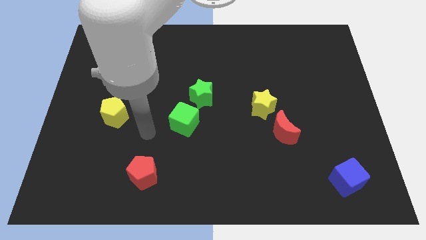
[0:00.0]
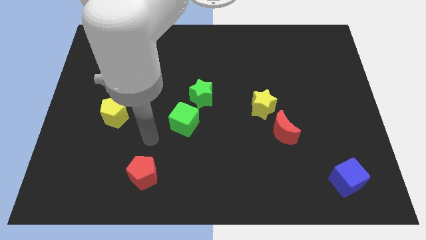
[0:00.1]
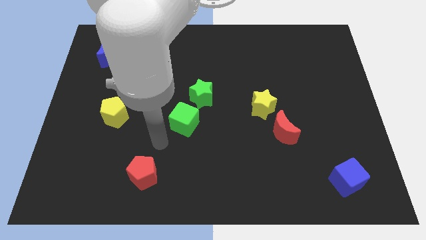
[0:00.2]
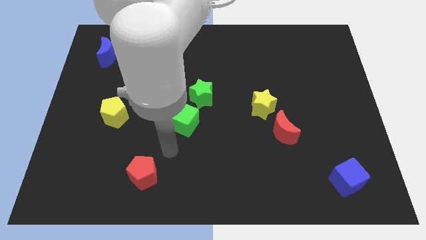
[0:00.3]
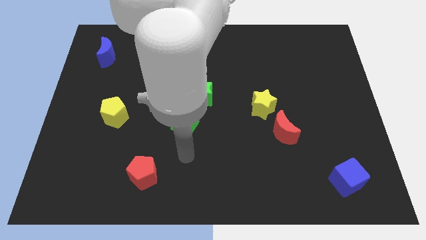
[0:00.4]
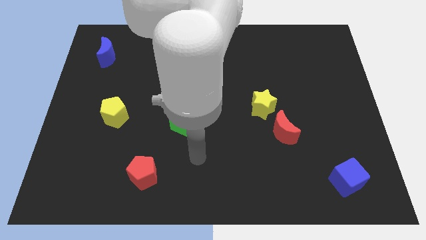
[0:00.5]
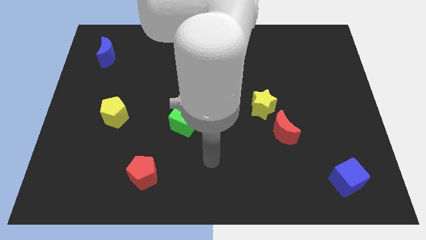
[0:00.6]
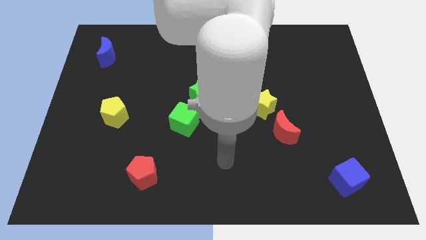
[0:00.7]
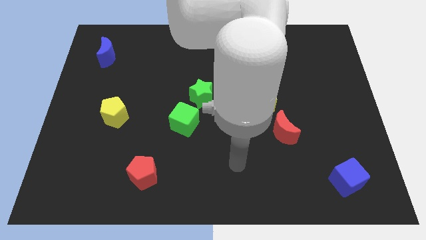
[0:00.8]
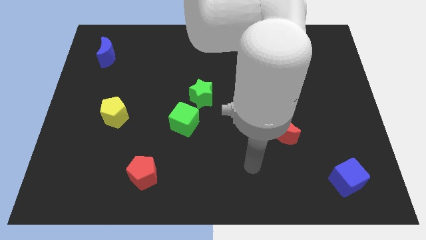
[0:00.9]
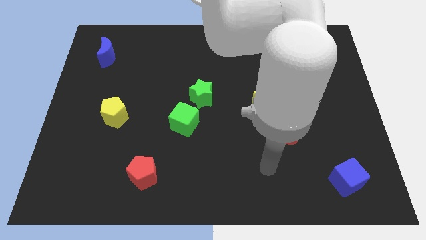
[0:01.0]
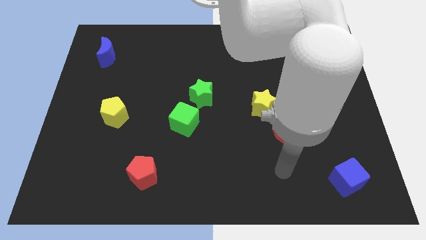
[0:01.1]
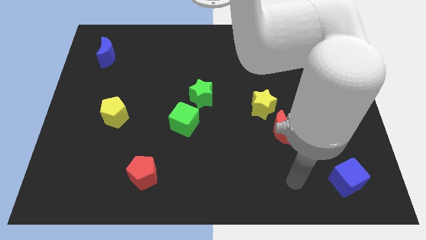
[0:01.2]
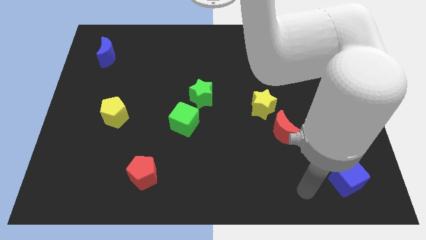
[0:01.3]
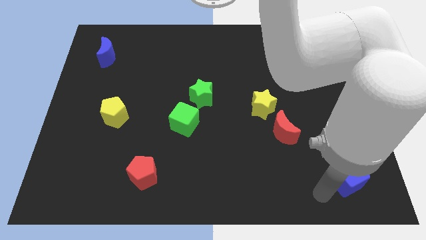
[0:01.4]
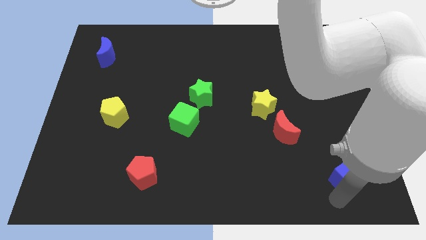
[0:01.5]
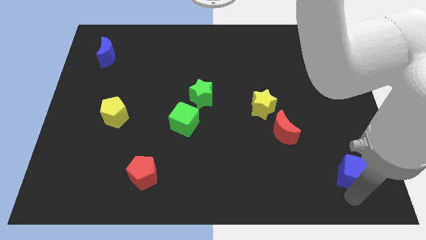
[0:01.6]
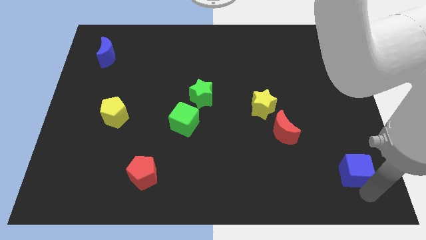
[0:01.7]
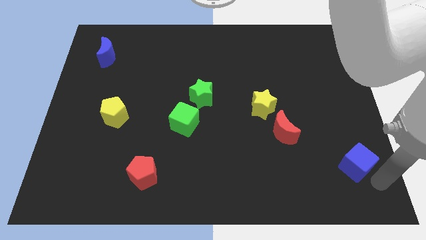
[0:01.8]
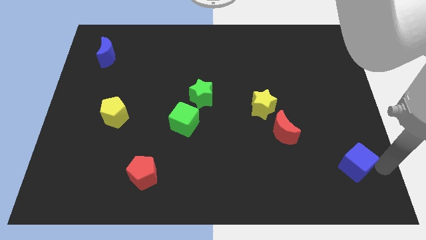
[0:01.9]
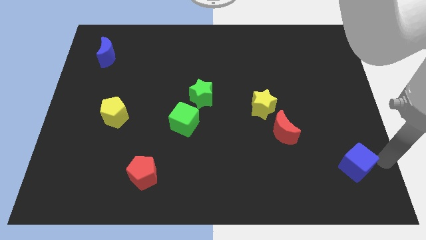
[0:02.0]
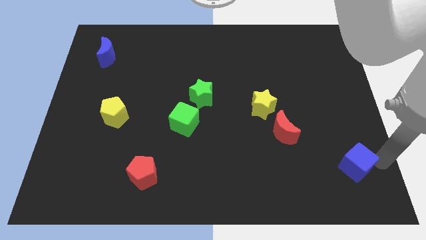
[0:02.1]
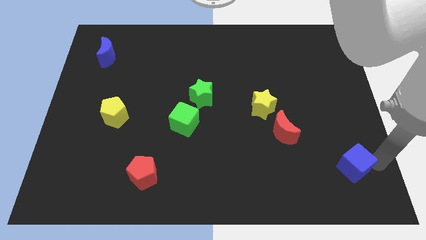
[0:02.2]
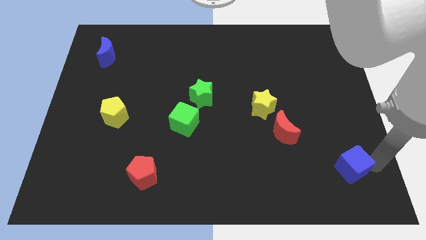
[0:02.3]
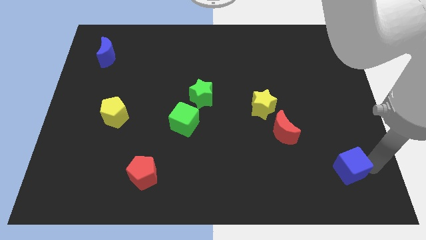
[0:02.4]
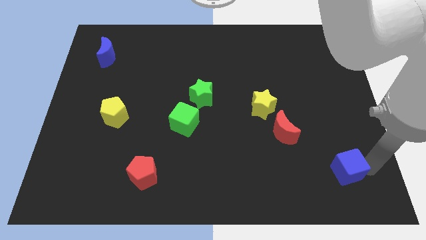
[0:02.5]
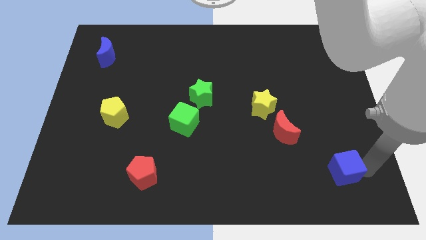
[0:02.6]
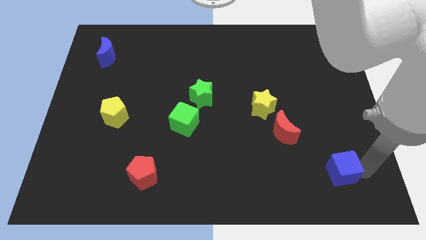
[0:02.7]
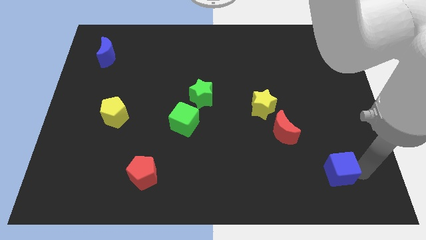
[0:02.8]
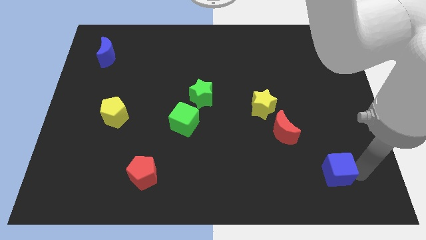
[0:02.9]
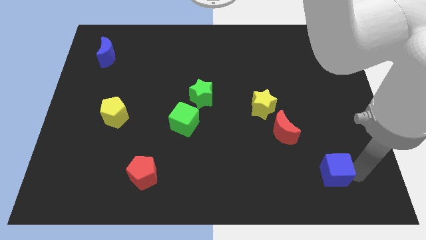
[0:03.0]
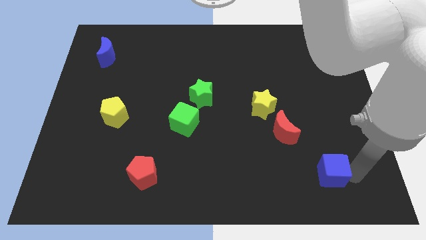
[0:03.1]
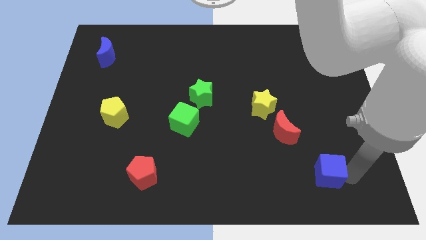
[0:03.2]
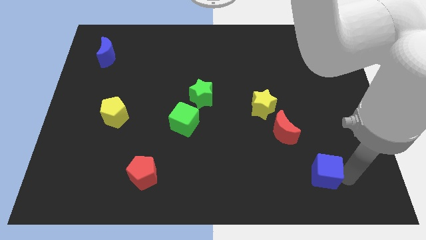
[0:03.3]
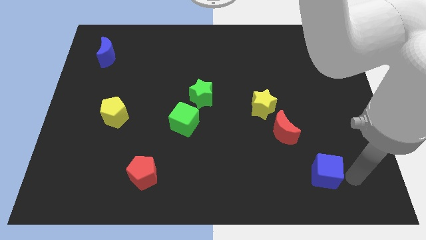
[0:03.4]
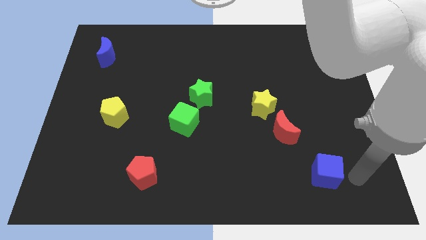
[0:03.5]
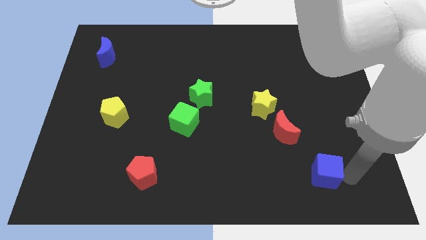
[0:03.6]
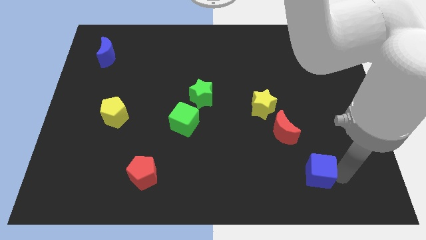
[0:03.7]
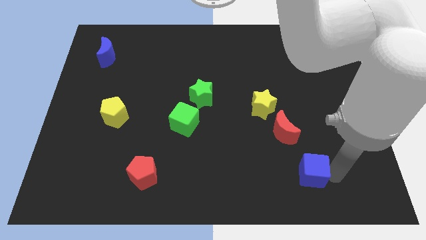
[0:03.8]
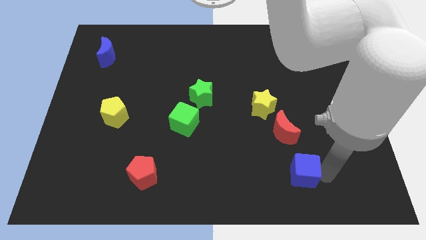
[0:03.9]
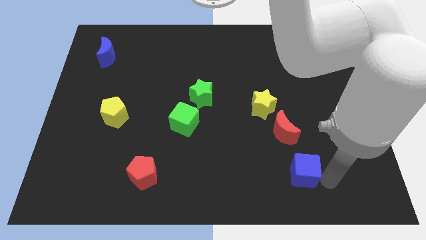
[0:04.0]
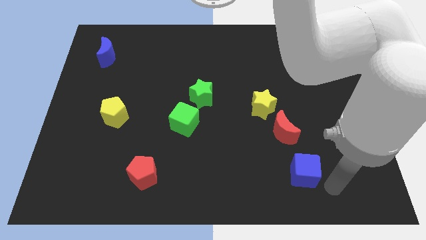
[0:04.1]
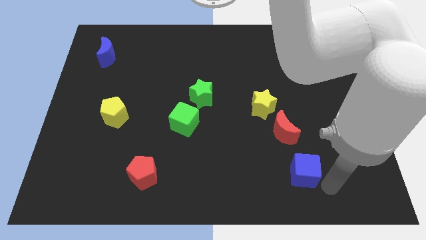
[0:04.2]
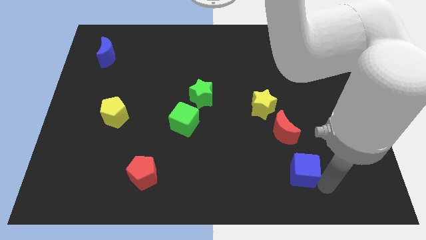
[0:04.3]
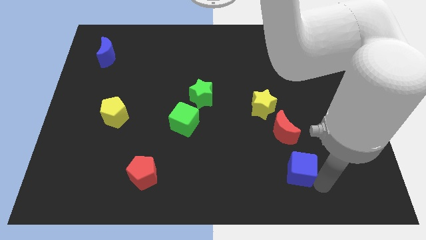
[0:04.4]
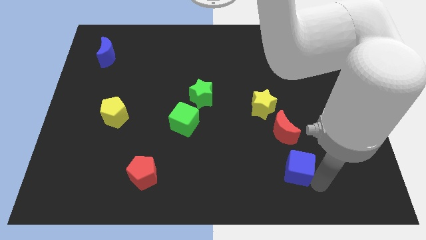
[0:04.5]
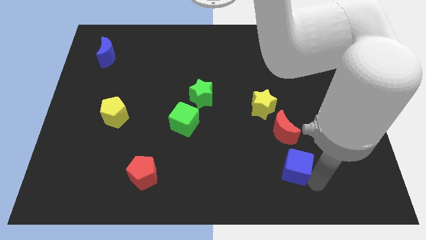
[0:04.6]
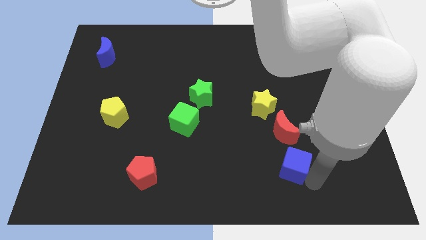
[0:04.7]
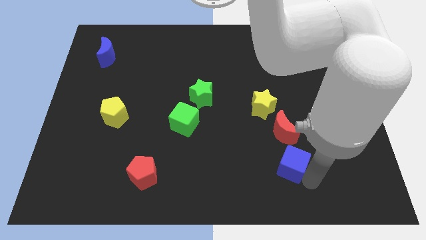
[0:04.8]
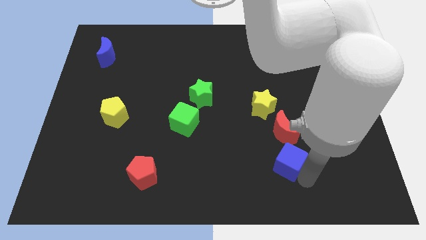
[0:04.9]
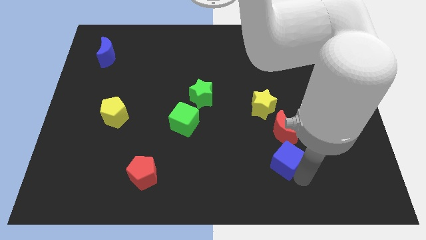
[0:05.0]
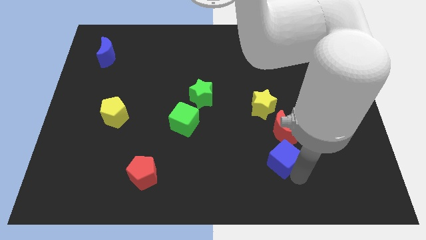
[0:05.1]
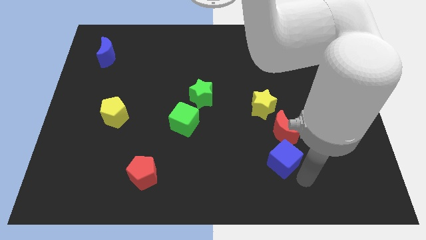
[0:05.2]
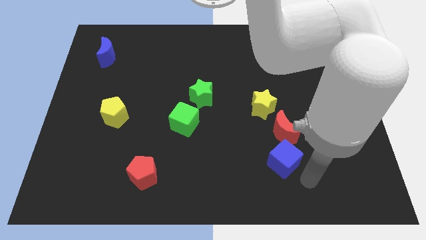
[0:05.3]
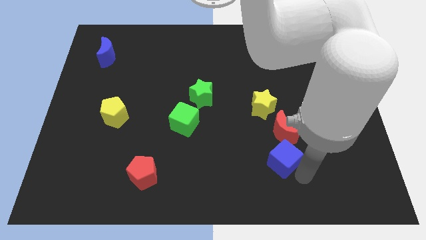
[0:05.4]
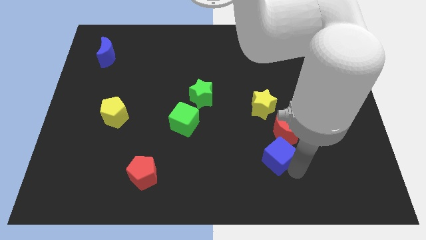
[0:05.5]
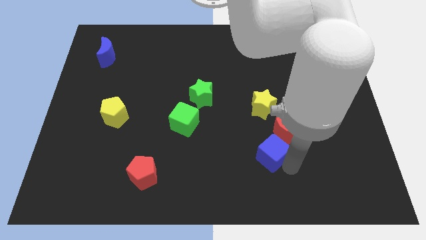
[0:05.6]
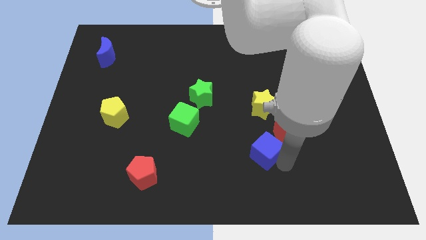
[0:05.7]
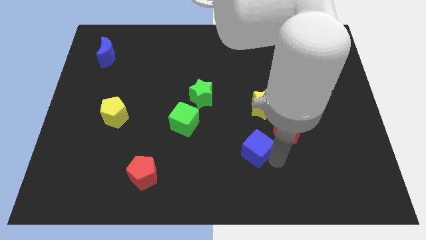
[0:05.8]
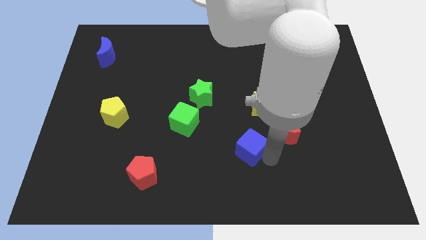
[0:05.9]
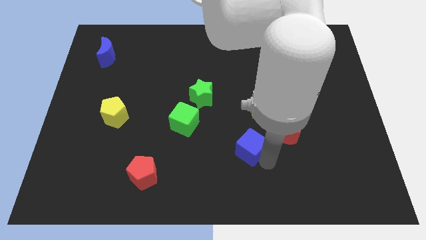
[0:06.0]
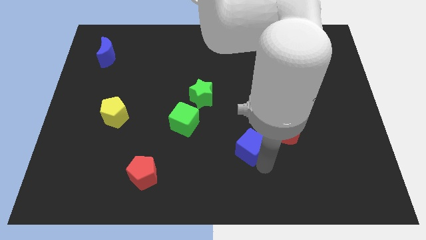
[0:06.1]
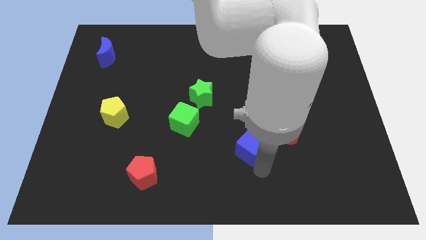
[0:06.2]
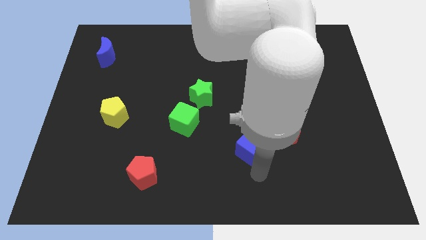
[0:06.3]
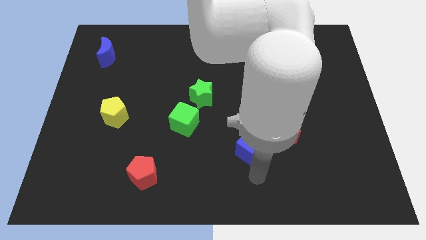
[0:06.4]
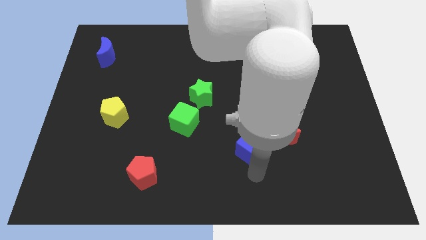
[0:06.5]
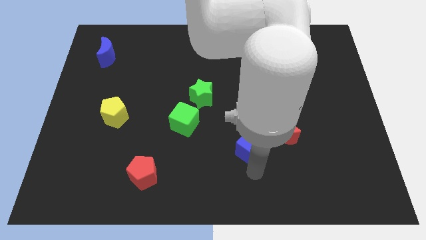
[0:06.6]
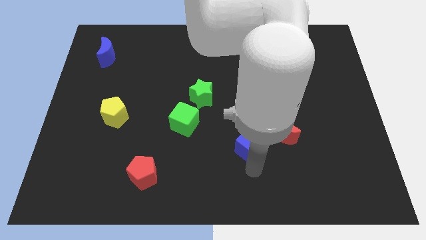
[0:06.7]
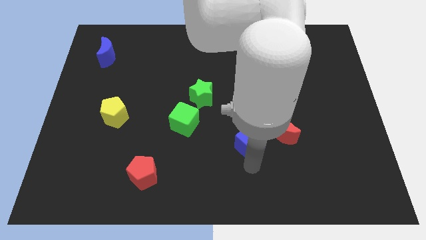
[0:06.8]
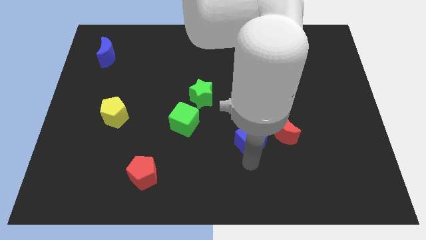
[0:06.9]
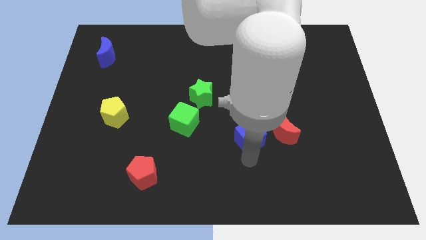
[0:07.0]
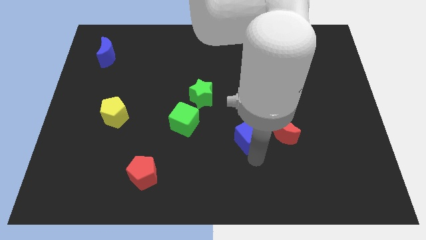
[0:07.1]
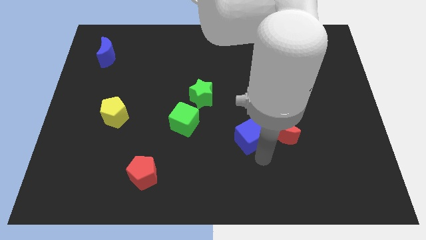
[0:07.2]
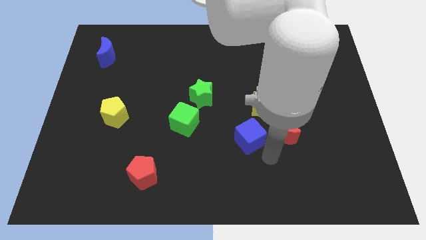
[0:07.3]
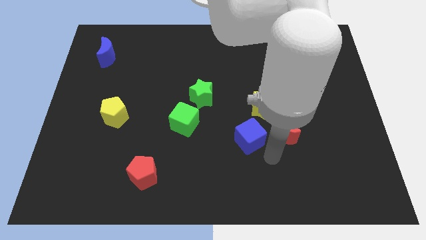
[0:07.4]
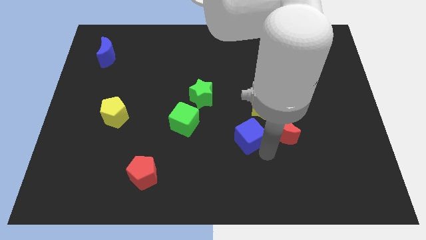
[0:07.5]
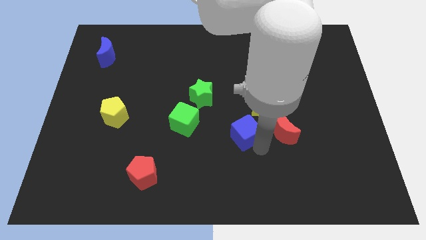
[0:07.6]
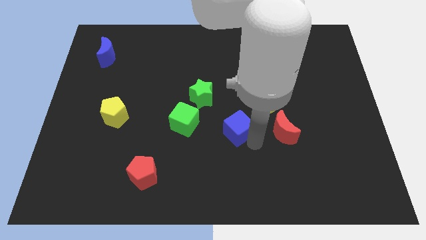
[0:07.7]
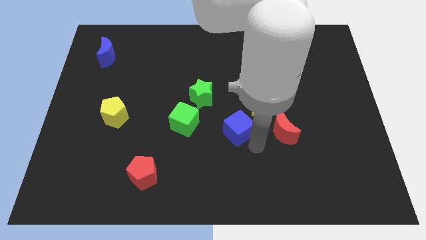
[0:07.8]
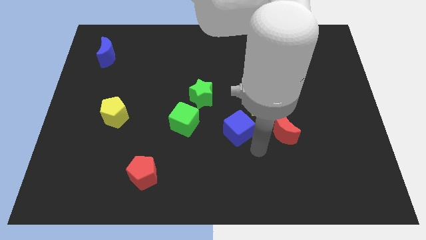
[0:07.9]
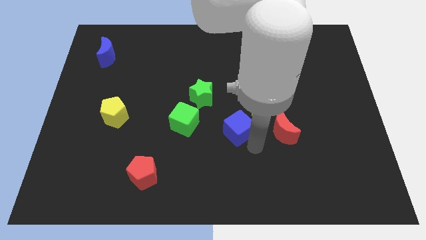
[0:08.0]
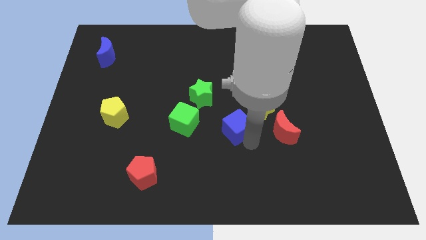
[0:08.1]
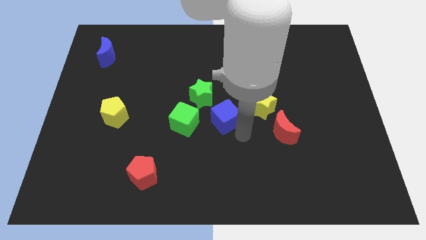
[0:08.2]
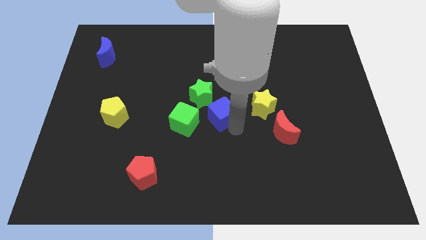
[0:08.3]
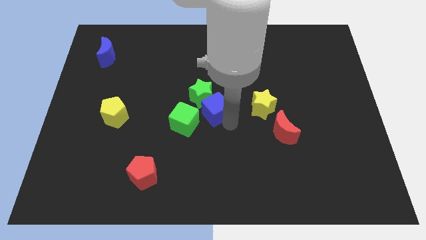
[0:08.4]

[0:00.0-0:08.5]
put the blue cube to the green star
